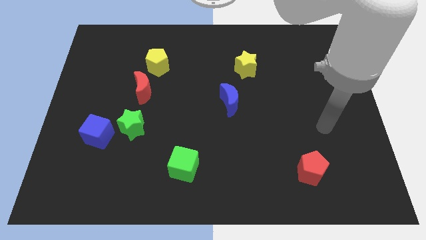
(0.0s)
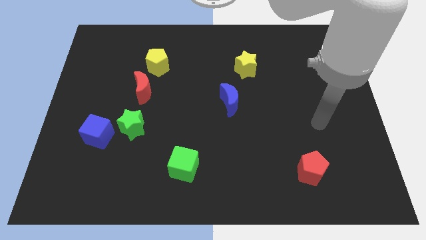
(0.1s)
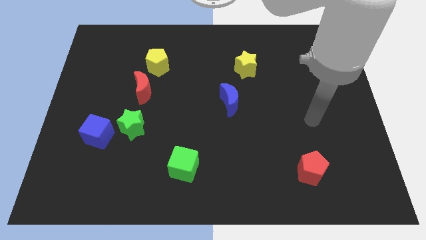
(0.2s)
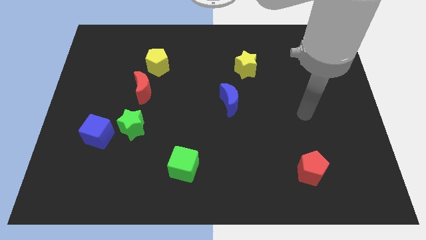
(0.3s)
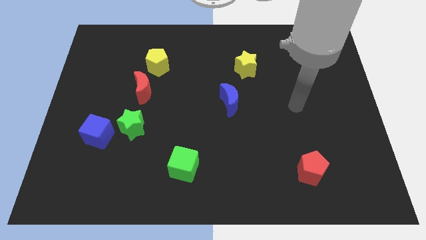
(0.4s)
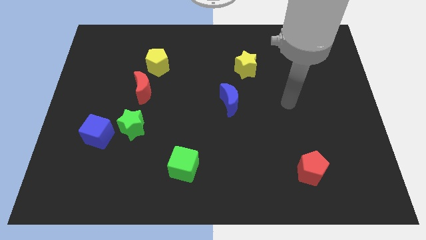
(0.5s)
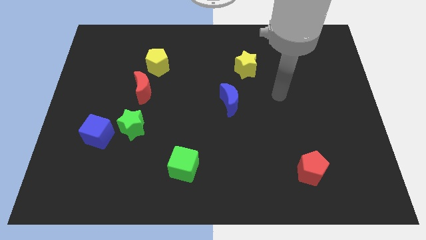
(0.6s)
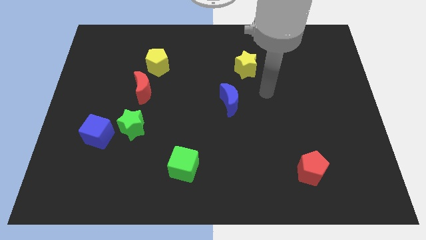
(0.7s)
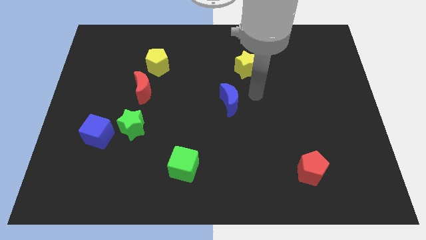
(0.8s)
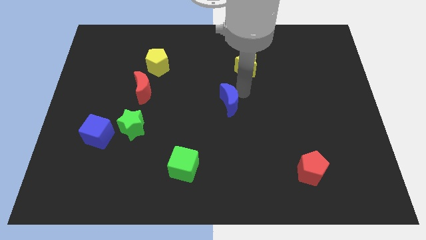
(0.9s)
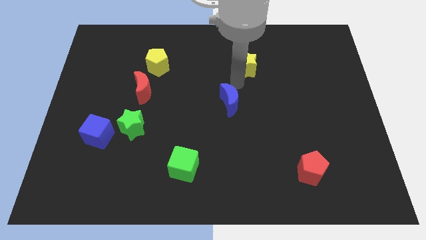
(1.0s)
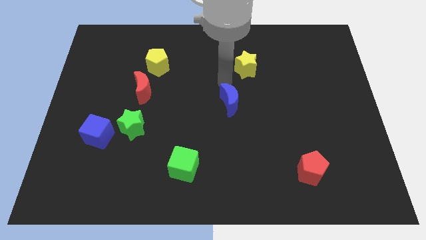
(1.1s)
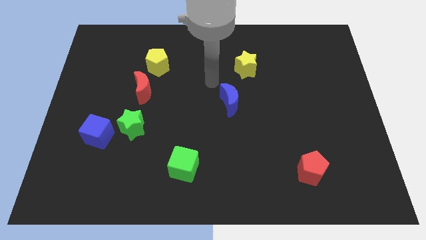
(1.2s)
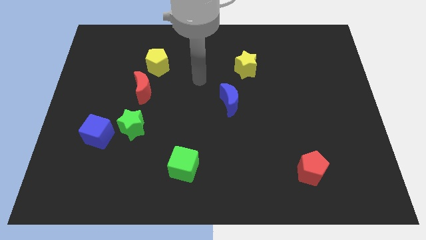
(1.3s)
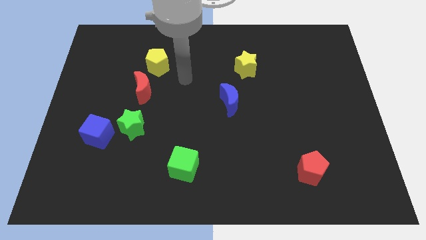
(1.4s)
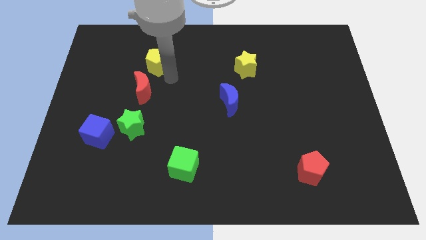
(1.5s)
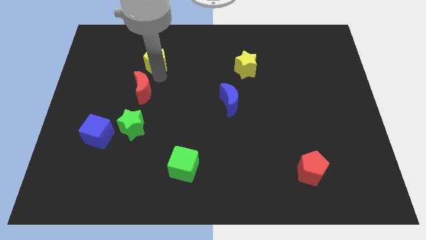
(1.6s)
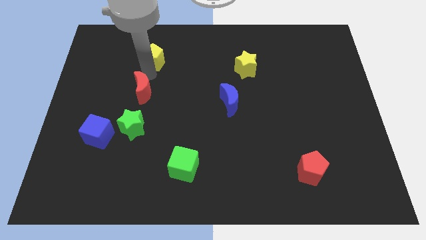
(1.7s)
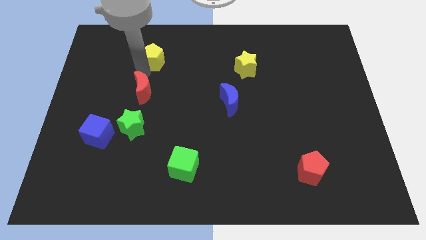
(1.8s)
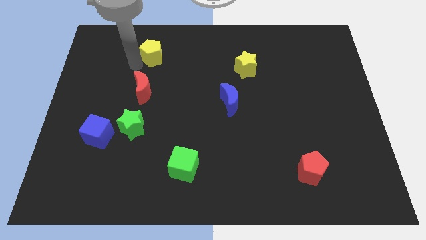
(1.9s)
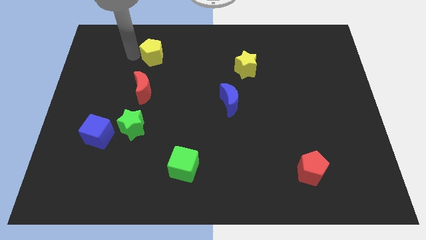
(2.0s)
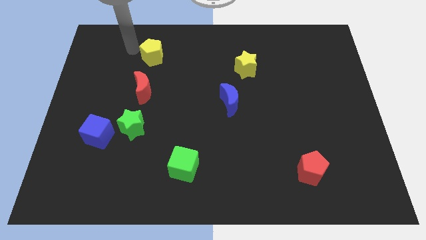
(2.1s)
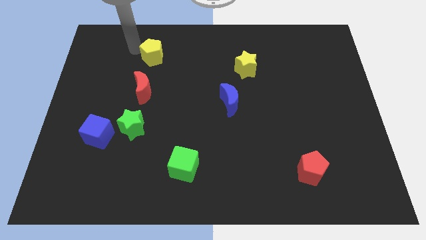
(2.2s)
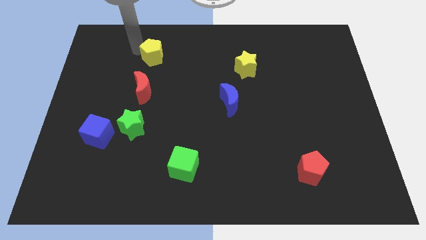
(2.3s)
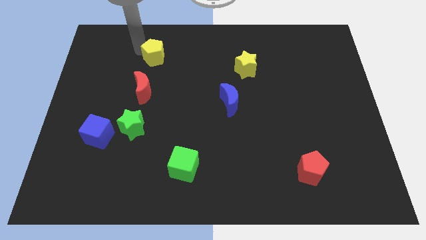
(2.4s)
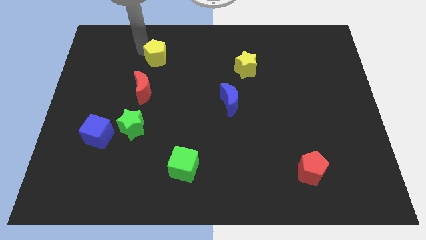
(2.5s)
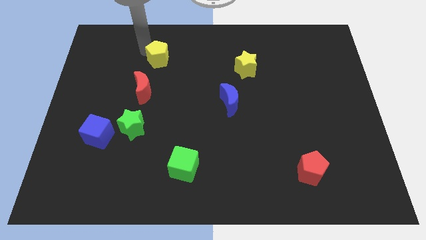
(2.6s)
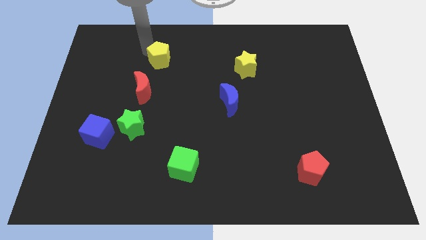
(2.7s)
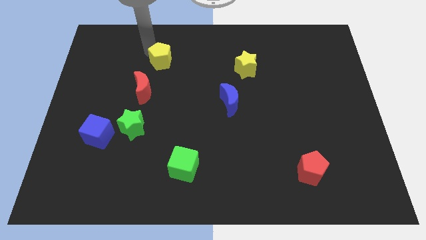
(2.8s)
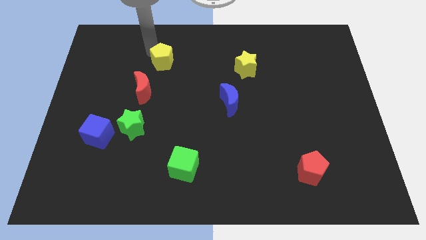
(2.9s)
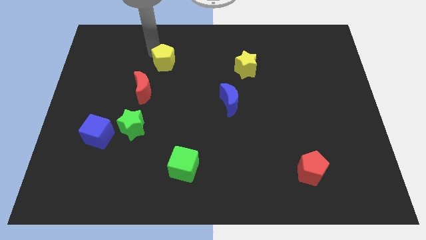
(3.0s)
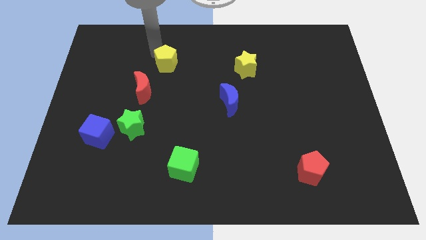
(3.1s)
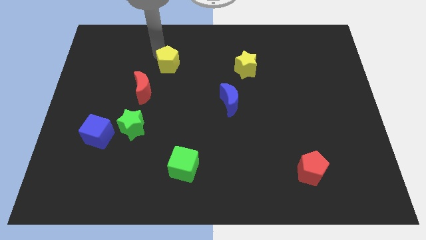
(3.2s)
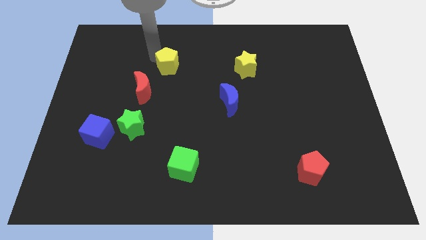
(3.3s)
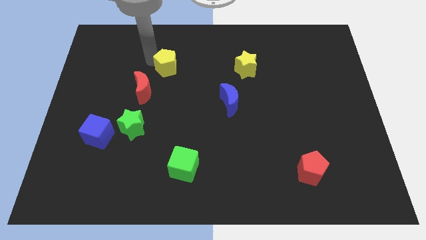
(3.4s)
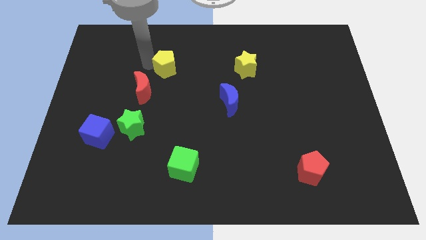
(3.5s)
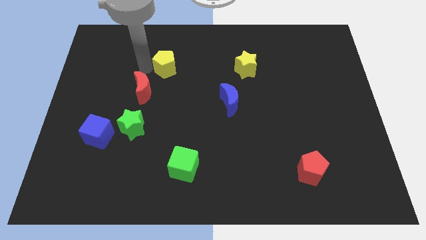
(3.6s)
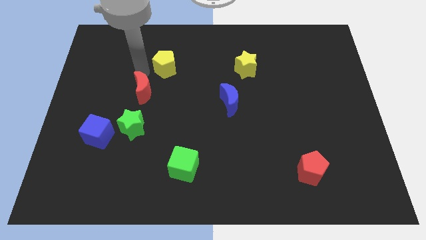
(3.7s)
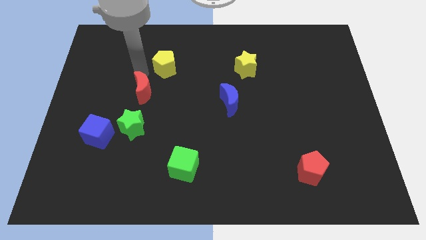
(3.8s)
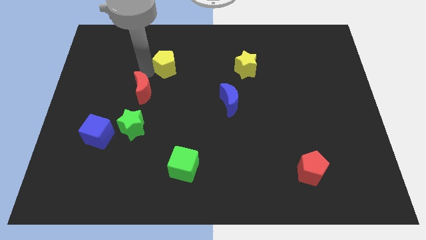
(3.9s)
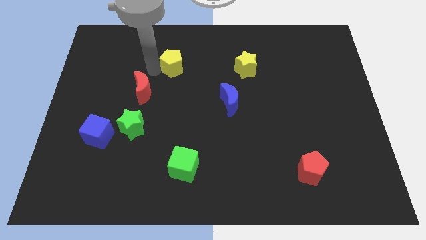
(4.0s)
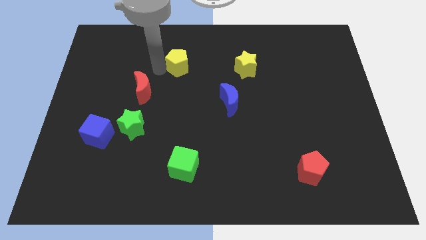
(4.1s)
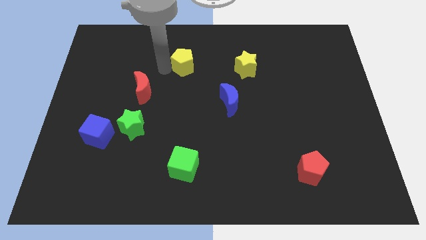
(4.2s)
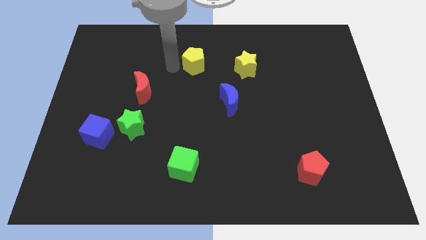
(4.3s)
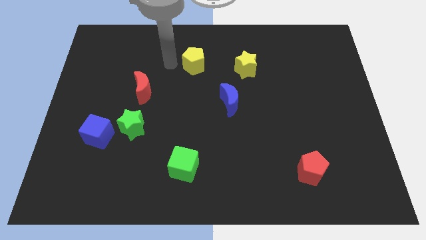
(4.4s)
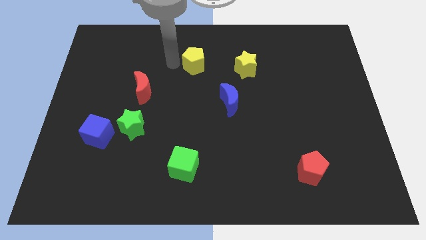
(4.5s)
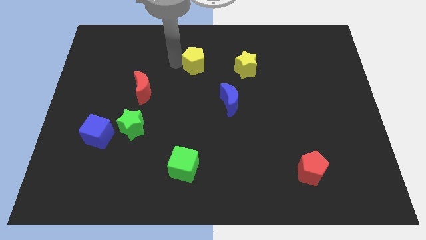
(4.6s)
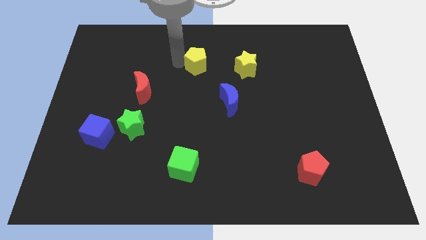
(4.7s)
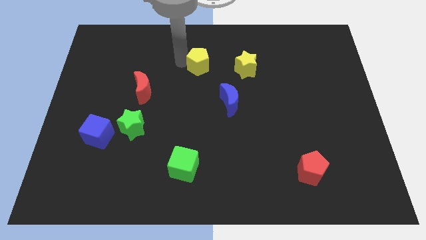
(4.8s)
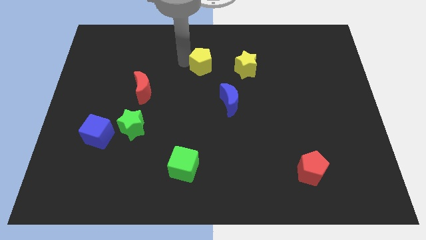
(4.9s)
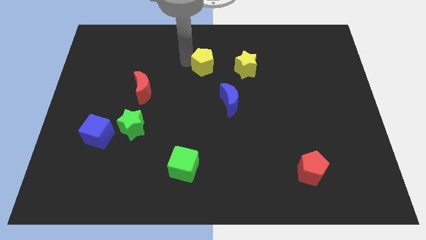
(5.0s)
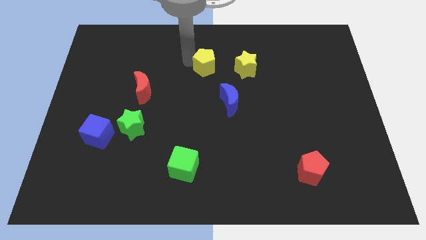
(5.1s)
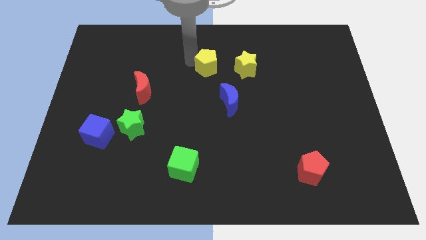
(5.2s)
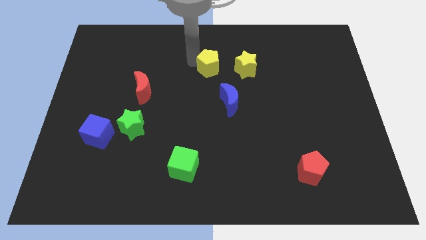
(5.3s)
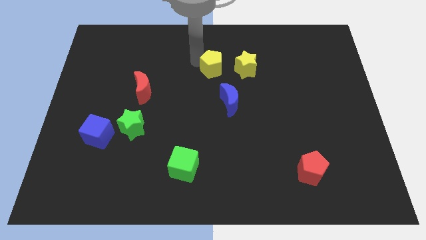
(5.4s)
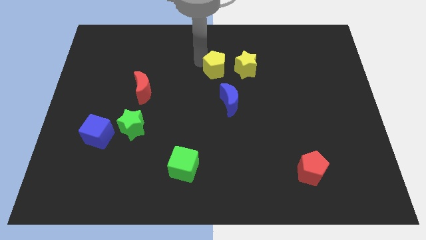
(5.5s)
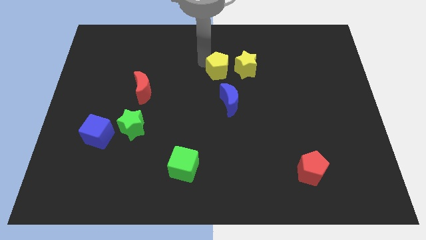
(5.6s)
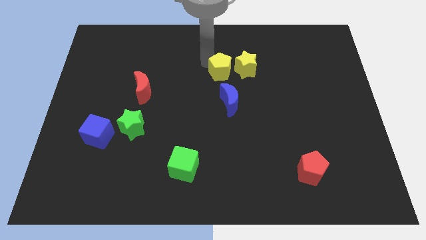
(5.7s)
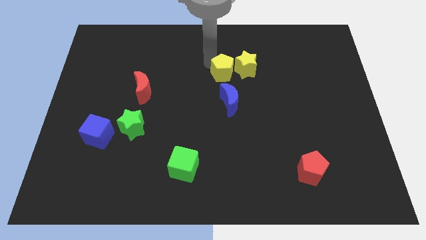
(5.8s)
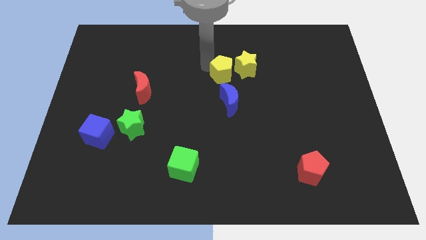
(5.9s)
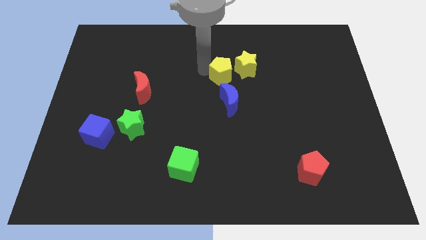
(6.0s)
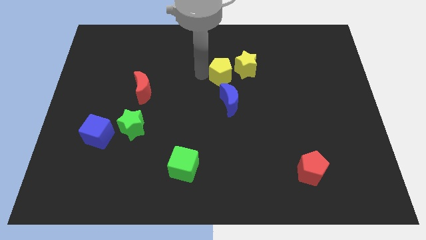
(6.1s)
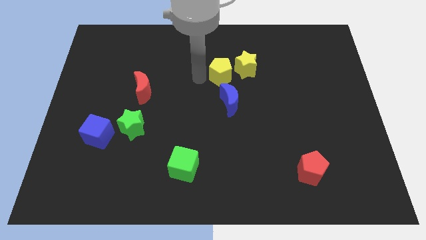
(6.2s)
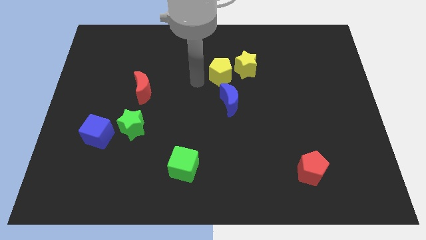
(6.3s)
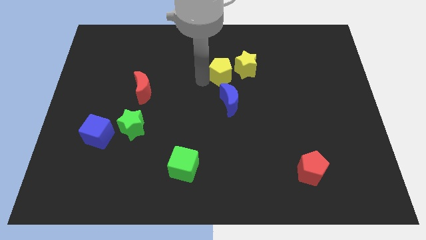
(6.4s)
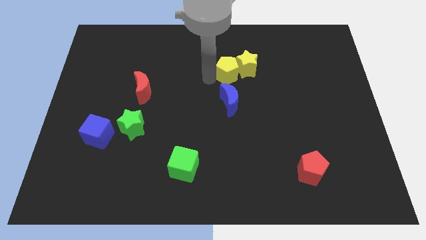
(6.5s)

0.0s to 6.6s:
push the yellow pentagon to the yellow star

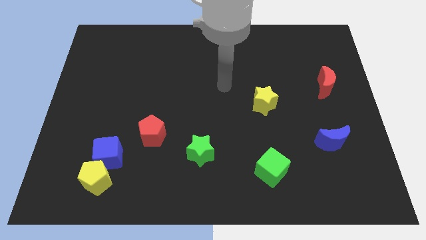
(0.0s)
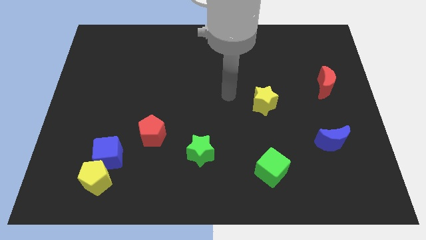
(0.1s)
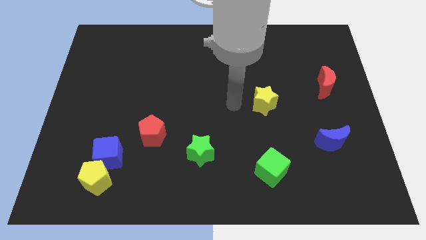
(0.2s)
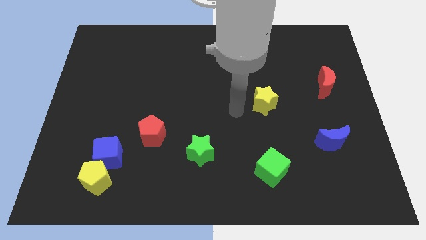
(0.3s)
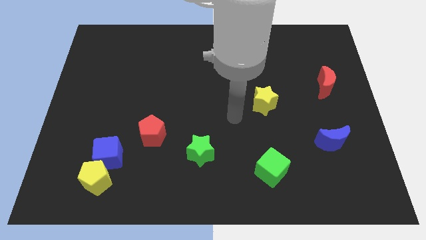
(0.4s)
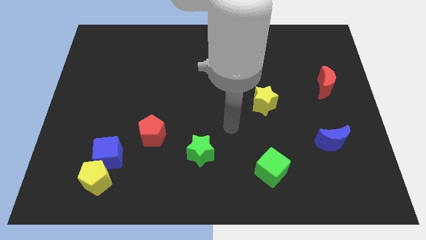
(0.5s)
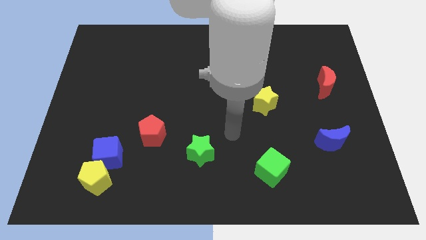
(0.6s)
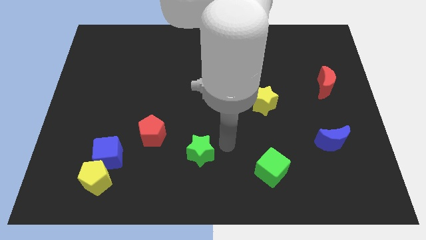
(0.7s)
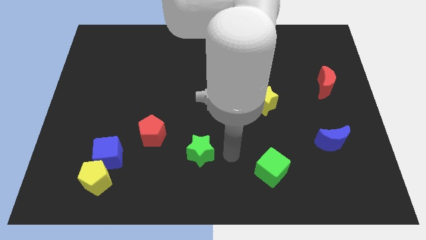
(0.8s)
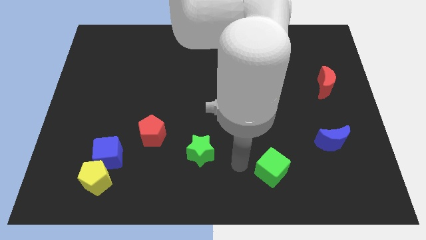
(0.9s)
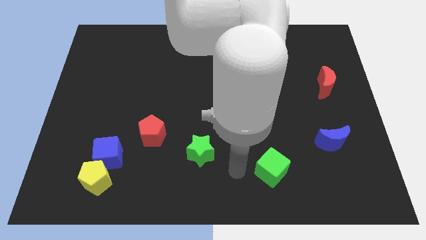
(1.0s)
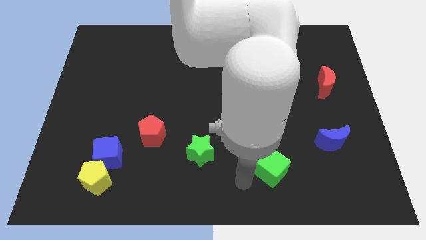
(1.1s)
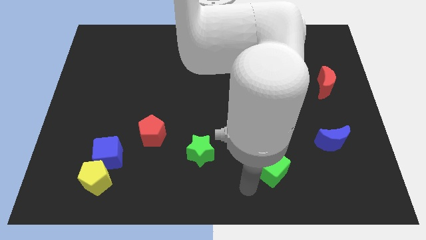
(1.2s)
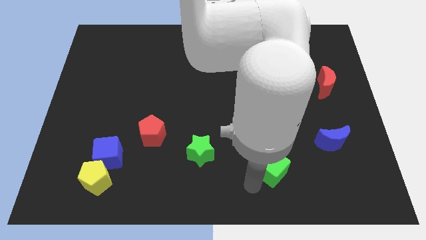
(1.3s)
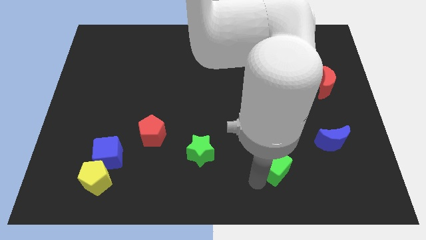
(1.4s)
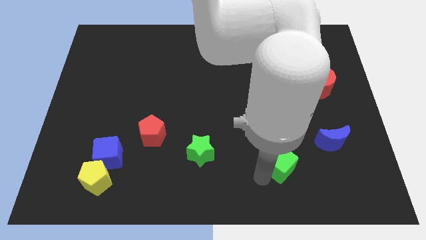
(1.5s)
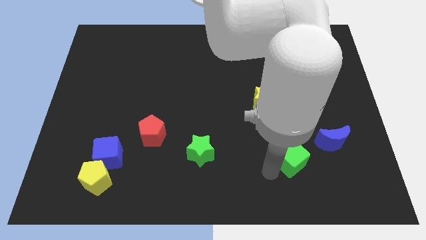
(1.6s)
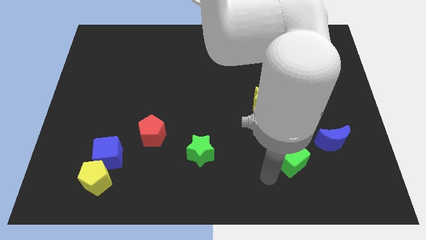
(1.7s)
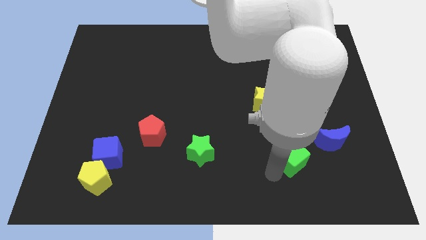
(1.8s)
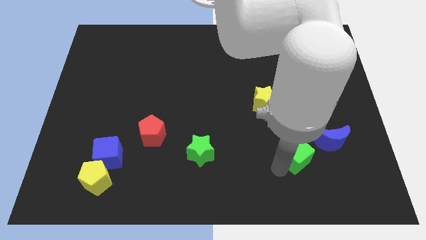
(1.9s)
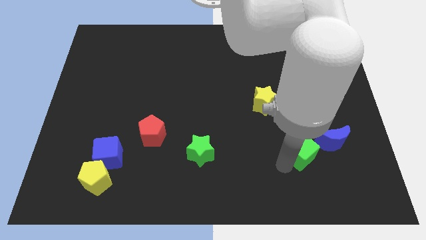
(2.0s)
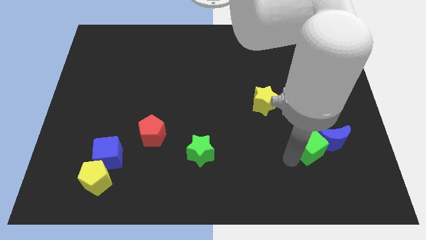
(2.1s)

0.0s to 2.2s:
slide the green cube to the blue moon

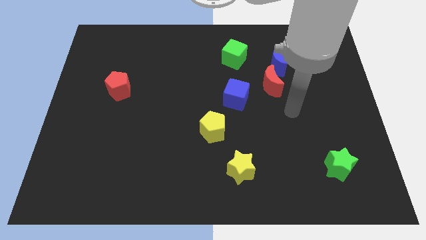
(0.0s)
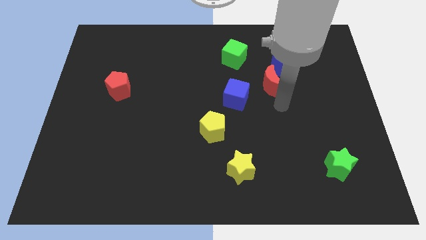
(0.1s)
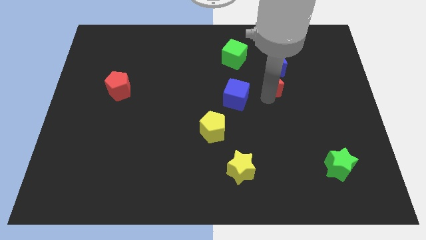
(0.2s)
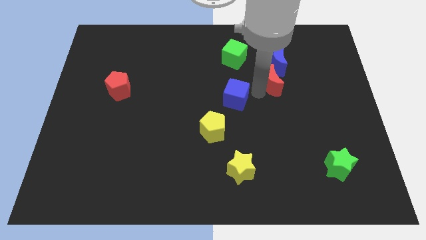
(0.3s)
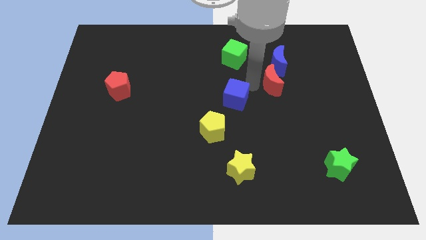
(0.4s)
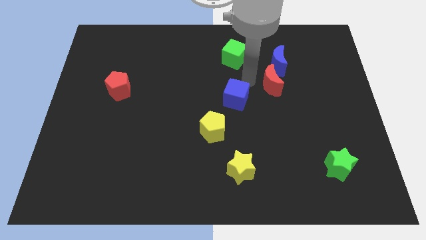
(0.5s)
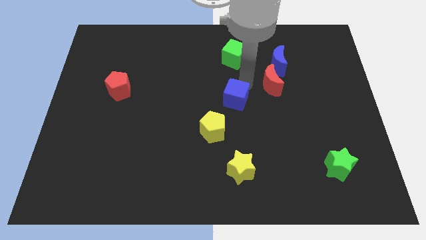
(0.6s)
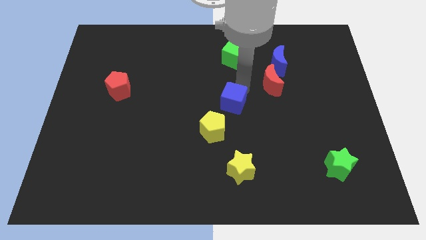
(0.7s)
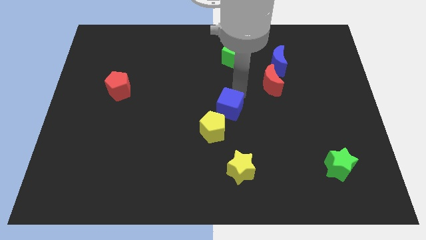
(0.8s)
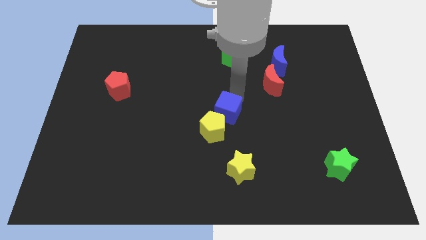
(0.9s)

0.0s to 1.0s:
put the blue cube close to the yellow pentagon
